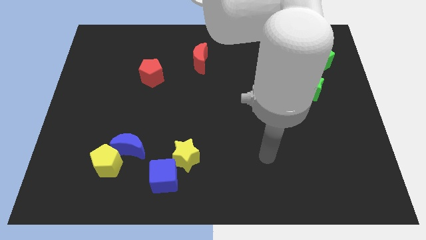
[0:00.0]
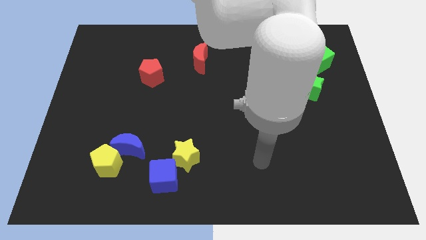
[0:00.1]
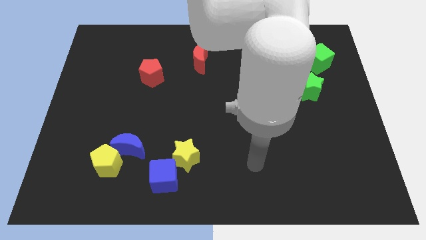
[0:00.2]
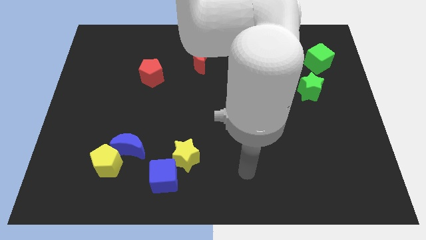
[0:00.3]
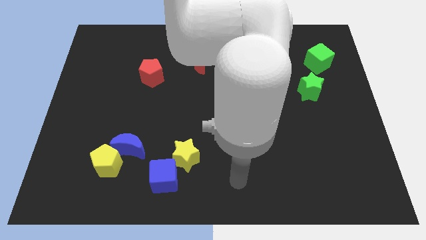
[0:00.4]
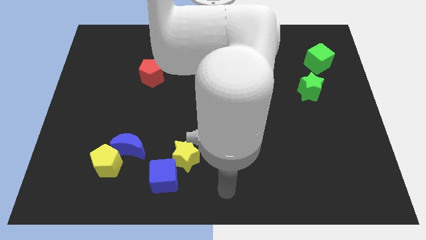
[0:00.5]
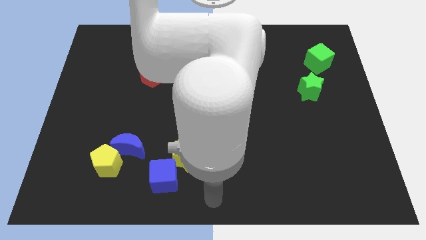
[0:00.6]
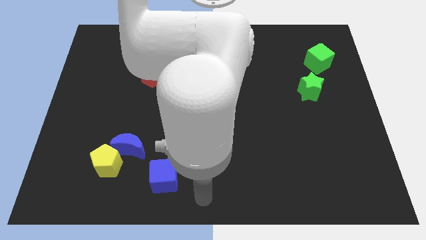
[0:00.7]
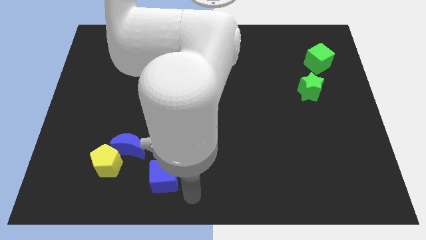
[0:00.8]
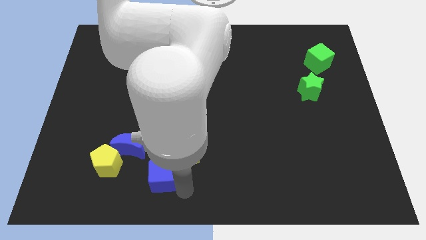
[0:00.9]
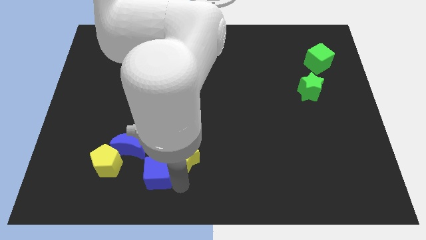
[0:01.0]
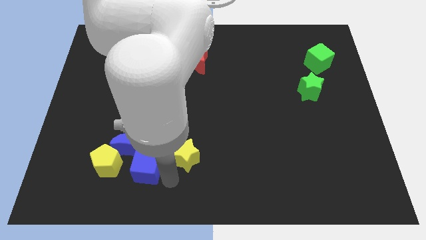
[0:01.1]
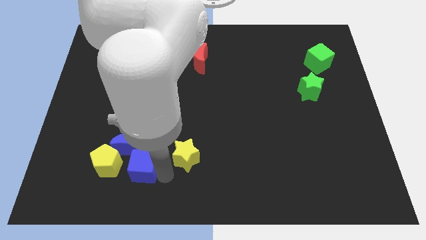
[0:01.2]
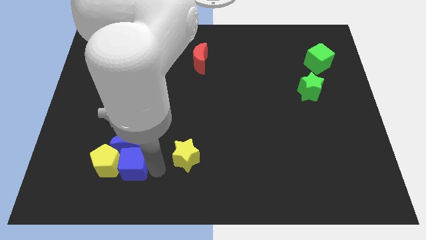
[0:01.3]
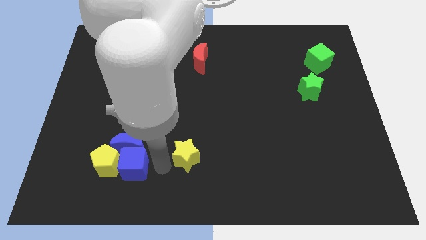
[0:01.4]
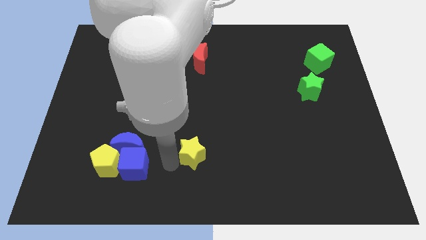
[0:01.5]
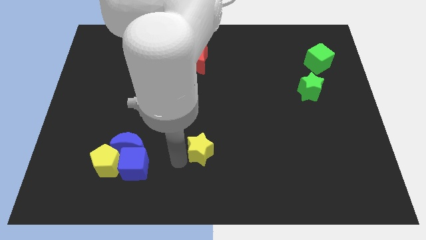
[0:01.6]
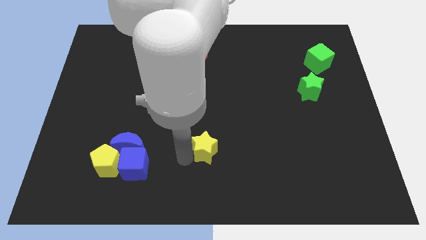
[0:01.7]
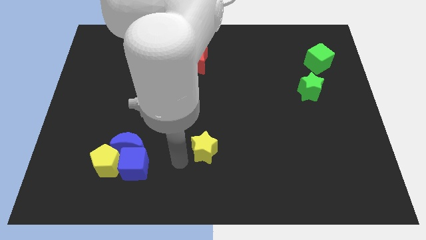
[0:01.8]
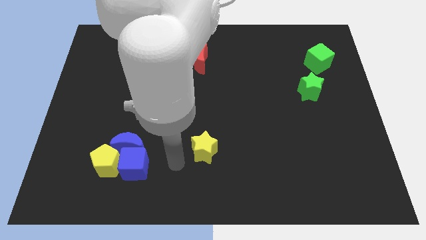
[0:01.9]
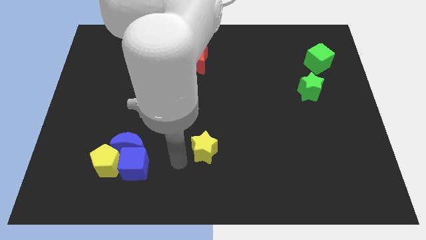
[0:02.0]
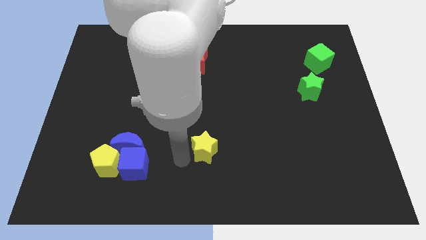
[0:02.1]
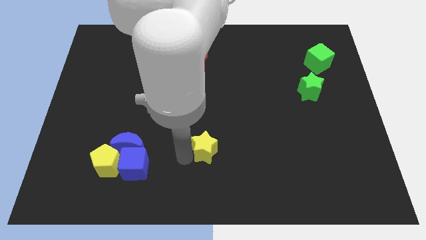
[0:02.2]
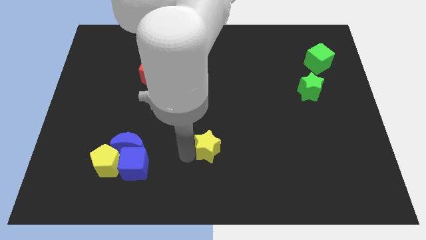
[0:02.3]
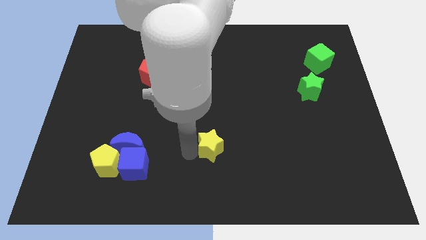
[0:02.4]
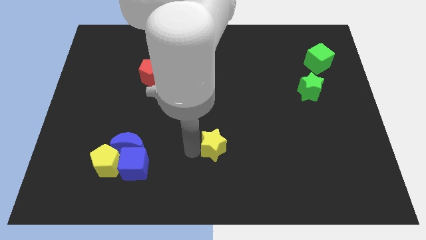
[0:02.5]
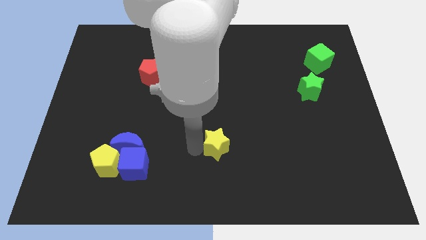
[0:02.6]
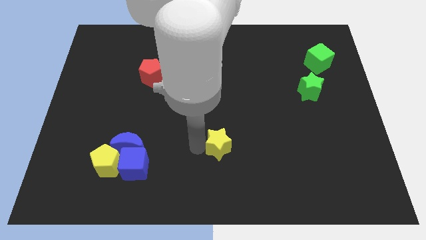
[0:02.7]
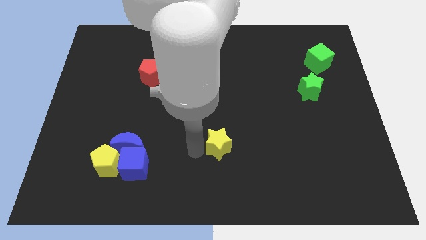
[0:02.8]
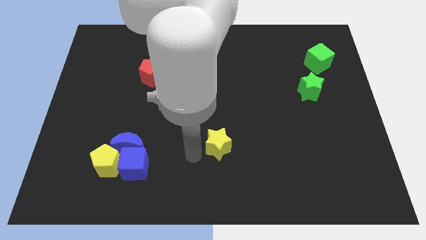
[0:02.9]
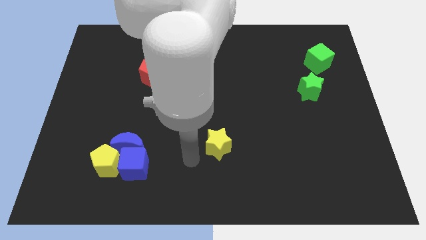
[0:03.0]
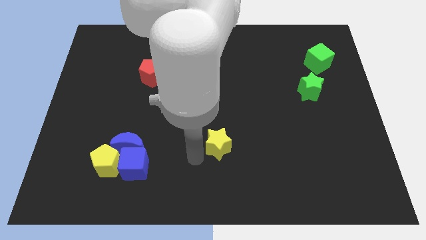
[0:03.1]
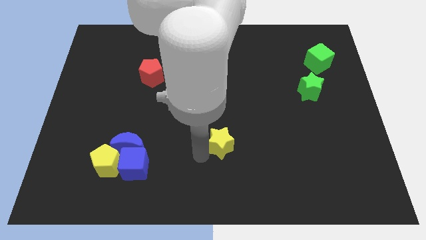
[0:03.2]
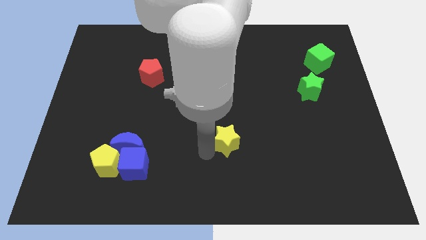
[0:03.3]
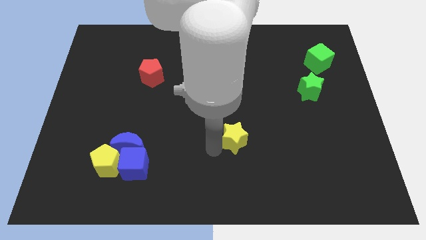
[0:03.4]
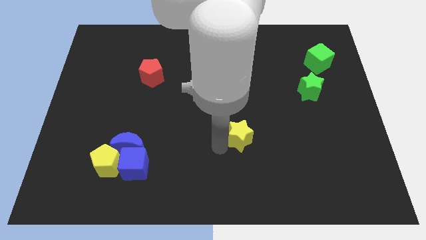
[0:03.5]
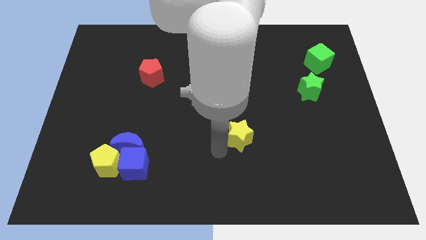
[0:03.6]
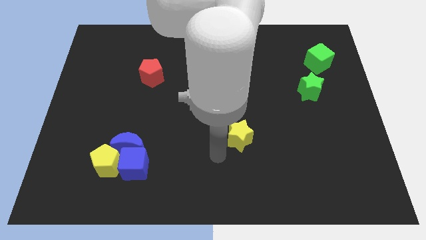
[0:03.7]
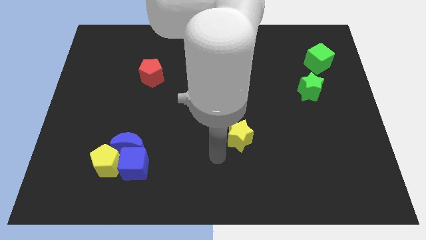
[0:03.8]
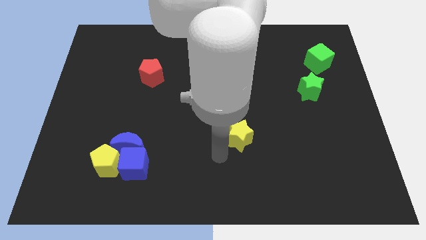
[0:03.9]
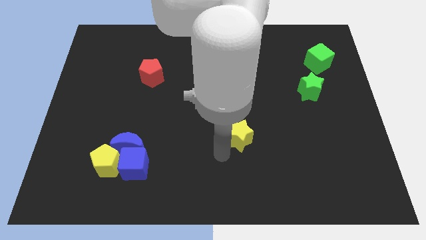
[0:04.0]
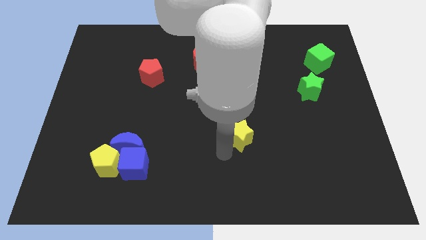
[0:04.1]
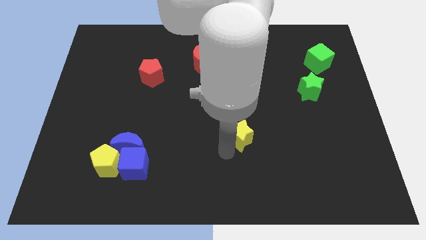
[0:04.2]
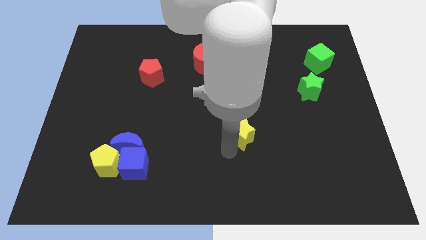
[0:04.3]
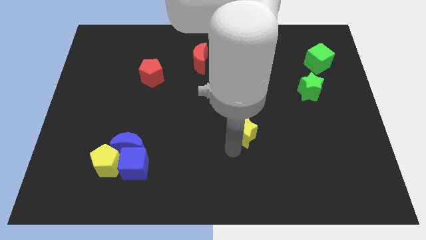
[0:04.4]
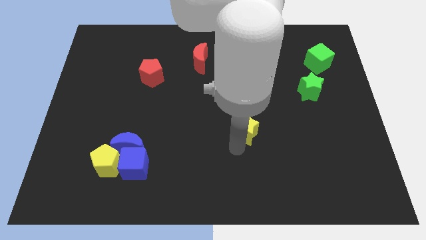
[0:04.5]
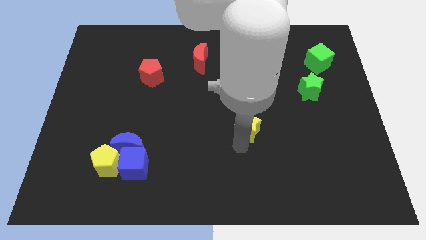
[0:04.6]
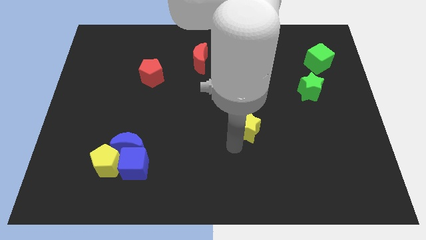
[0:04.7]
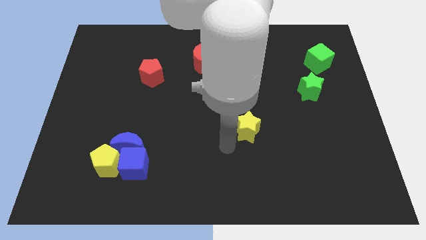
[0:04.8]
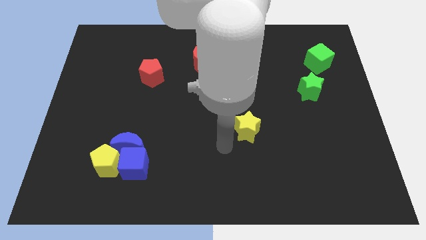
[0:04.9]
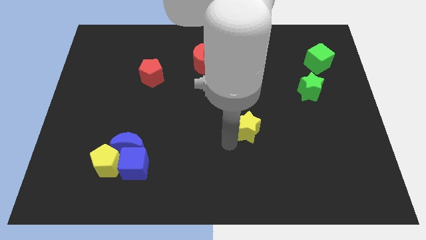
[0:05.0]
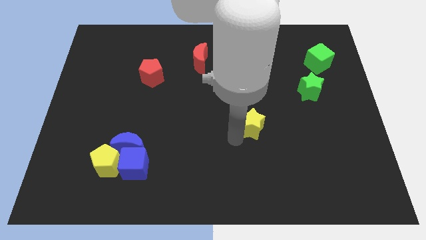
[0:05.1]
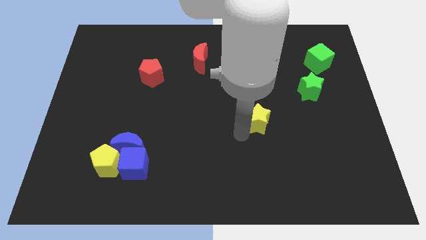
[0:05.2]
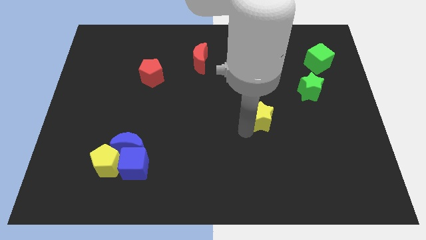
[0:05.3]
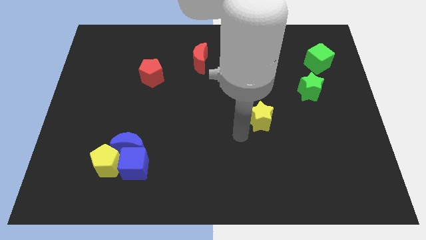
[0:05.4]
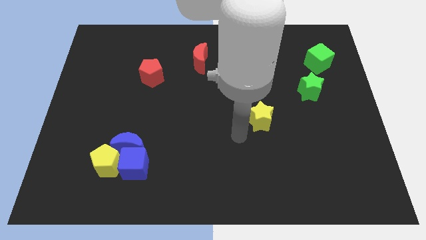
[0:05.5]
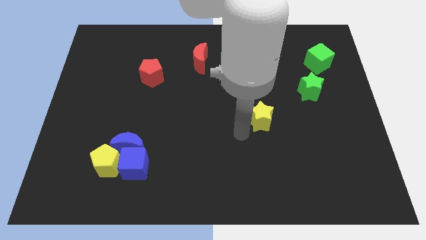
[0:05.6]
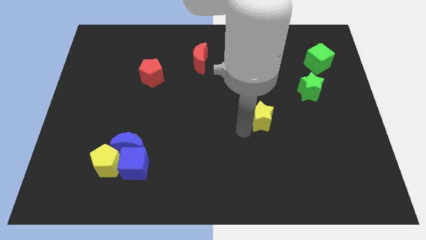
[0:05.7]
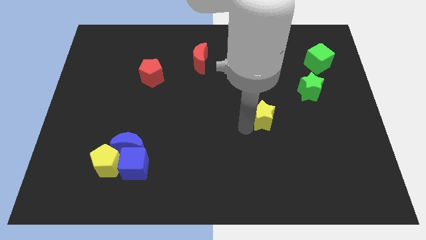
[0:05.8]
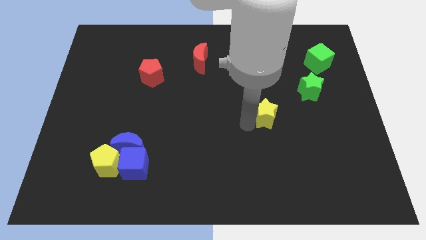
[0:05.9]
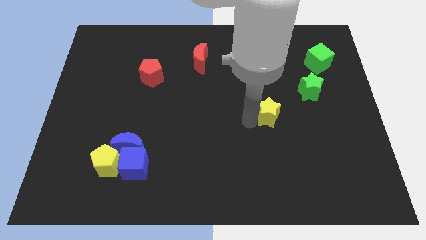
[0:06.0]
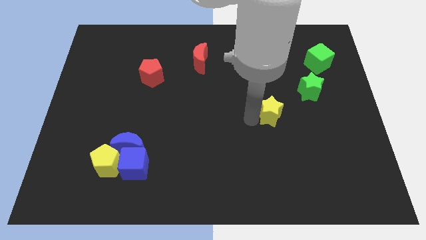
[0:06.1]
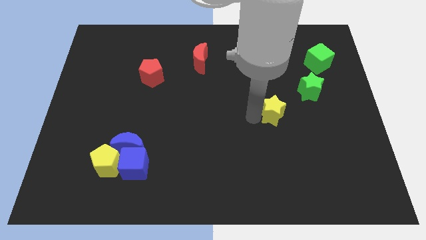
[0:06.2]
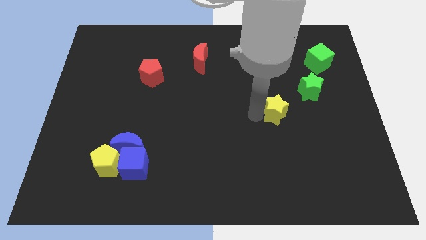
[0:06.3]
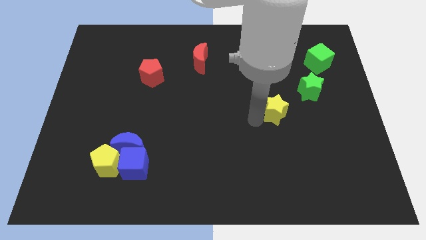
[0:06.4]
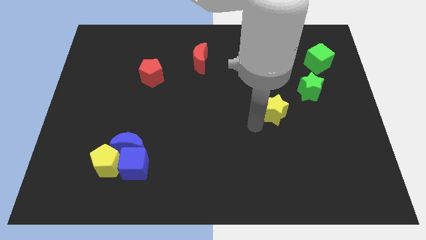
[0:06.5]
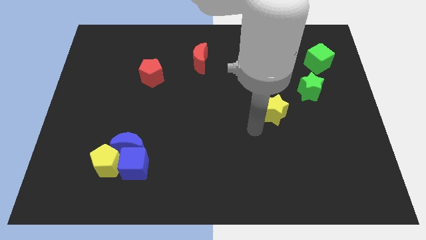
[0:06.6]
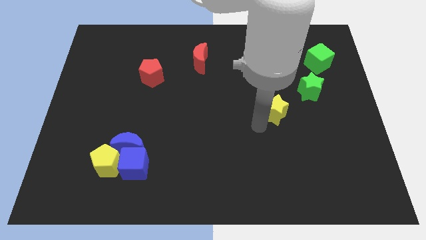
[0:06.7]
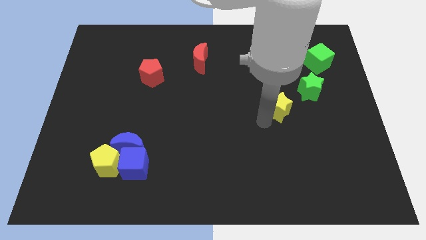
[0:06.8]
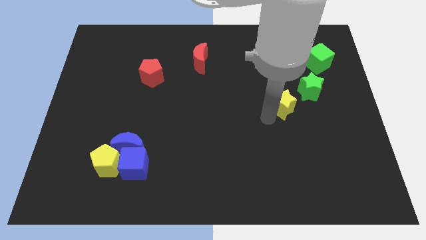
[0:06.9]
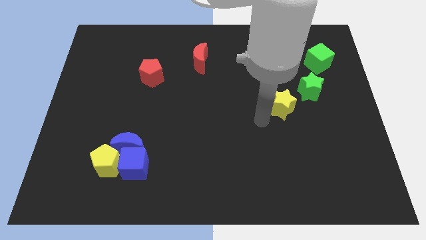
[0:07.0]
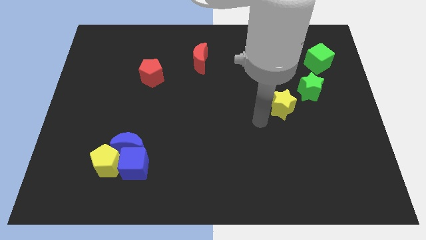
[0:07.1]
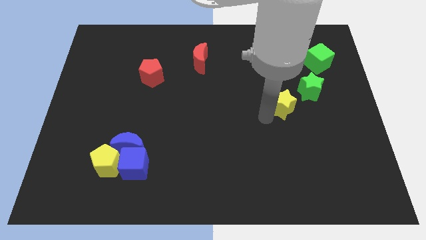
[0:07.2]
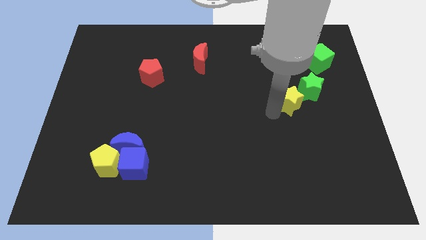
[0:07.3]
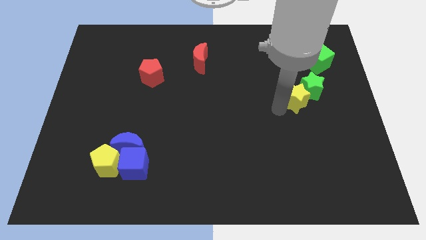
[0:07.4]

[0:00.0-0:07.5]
put the yellow star to the green star
